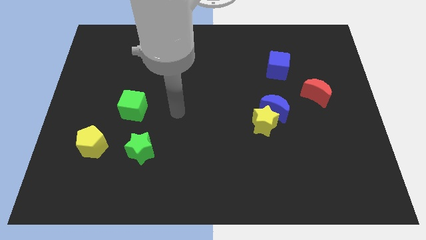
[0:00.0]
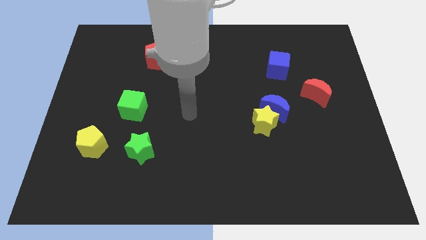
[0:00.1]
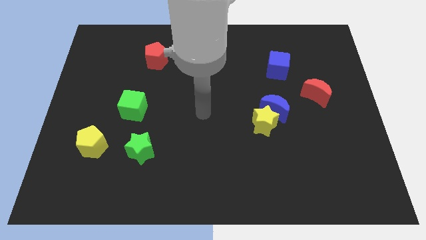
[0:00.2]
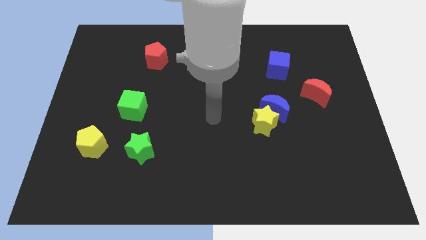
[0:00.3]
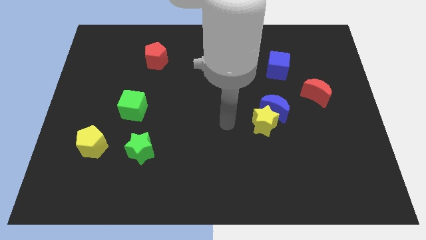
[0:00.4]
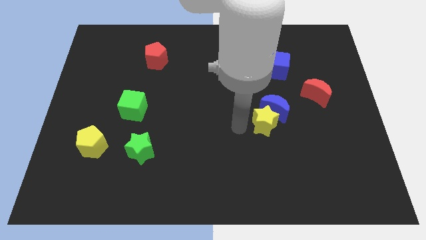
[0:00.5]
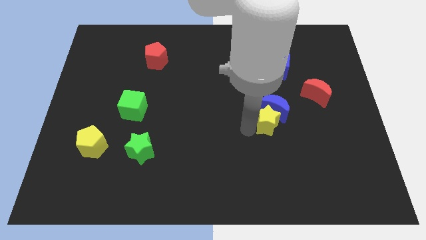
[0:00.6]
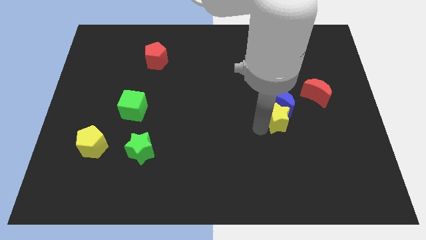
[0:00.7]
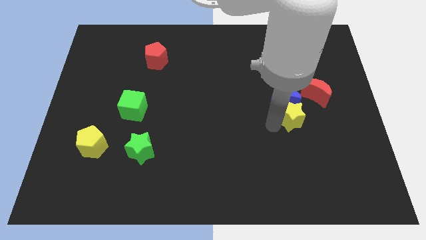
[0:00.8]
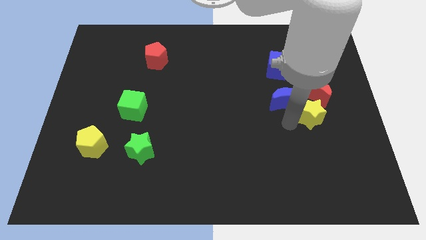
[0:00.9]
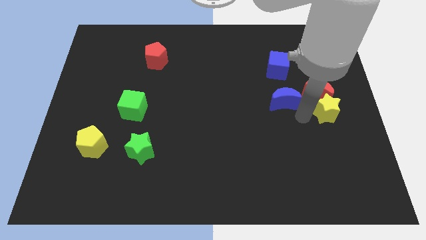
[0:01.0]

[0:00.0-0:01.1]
separate the blue moon from the yellow star

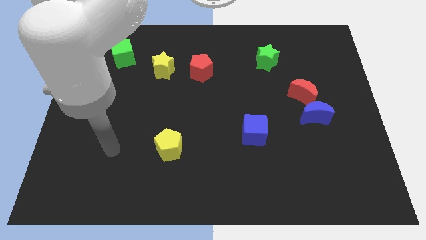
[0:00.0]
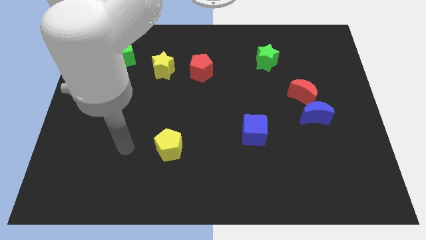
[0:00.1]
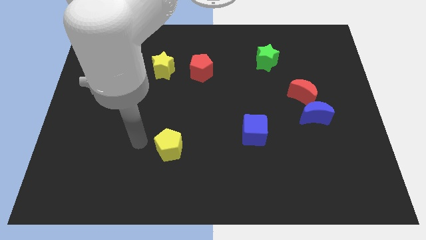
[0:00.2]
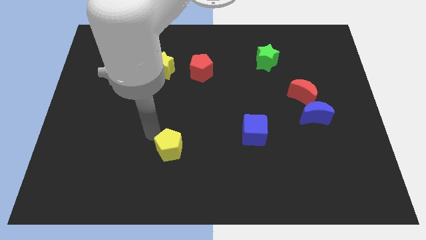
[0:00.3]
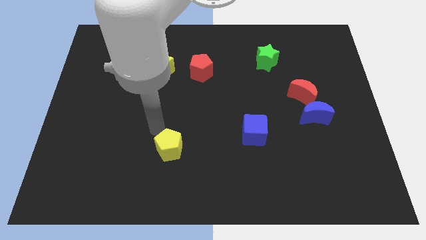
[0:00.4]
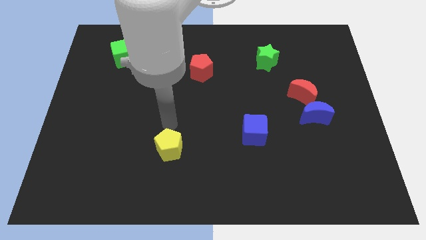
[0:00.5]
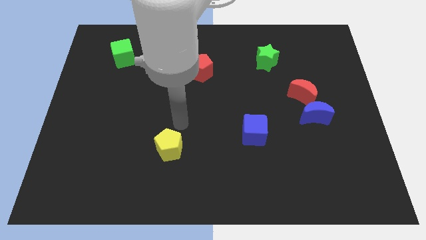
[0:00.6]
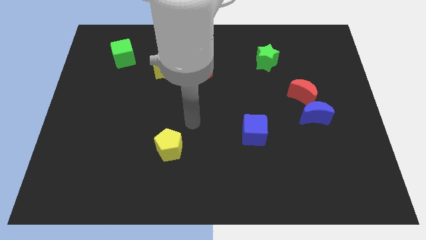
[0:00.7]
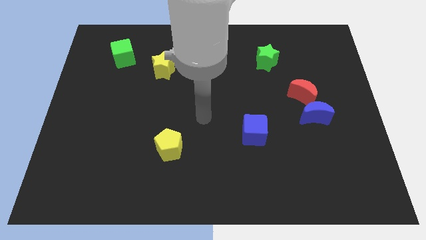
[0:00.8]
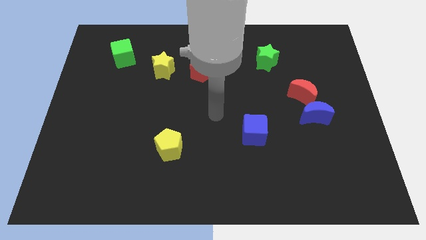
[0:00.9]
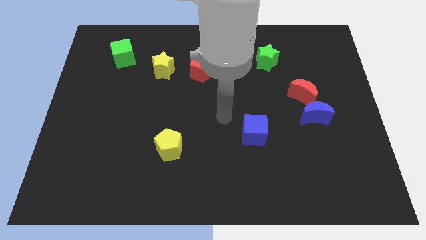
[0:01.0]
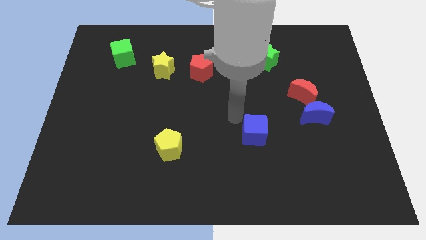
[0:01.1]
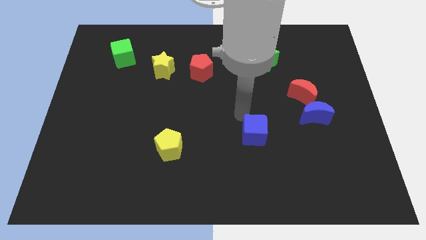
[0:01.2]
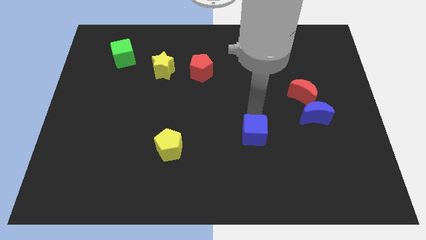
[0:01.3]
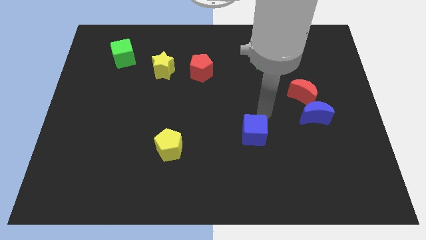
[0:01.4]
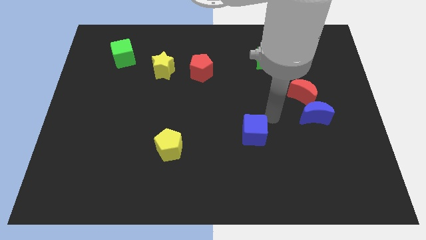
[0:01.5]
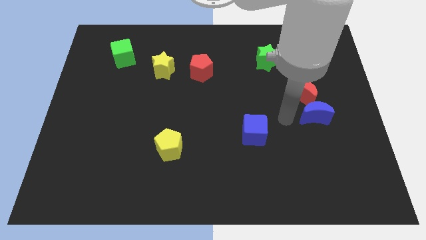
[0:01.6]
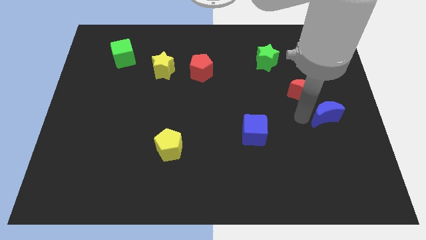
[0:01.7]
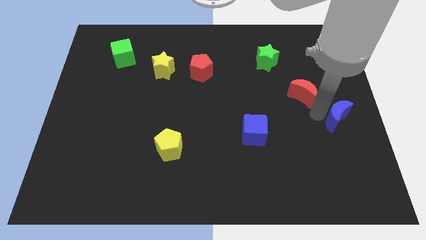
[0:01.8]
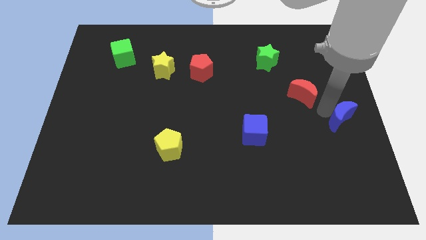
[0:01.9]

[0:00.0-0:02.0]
move the red moon away from the blue moon

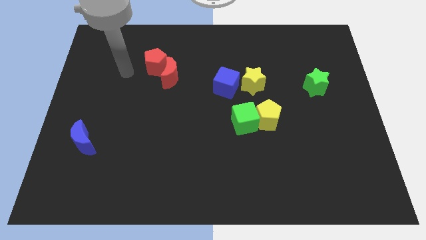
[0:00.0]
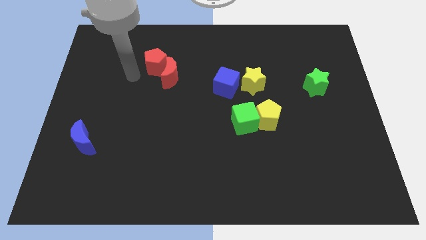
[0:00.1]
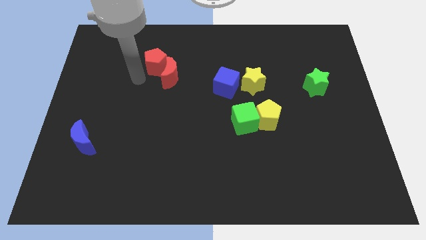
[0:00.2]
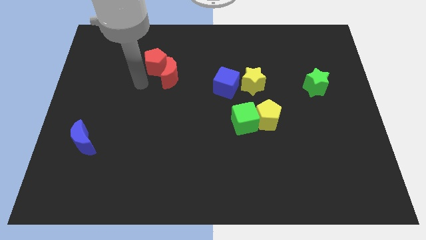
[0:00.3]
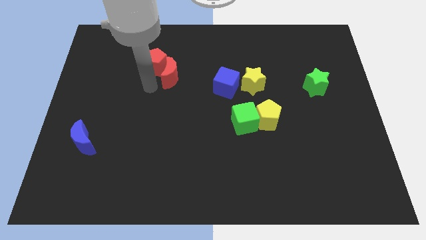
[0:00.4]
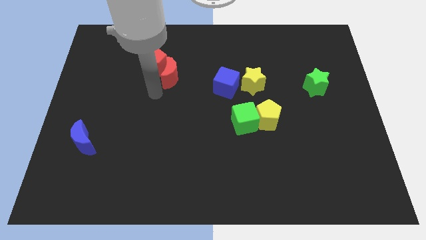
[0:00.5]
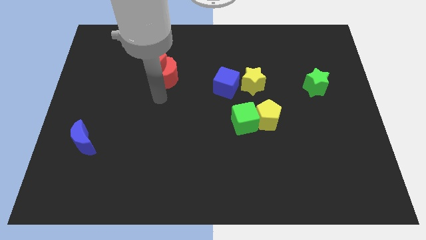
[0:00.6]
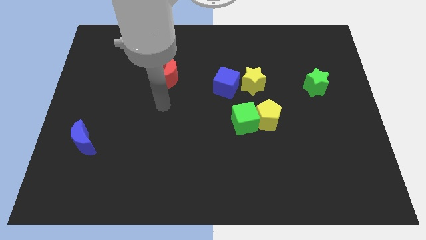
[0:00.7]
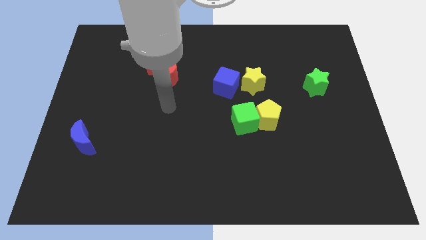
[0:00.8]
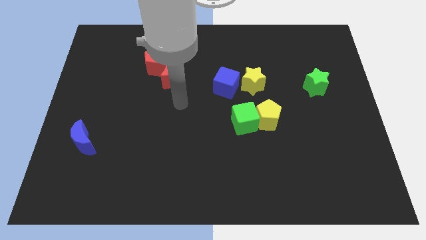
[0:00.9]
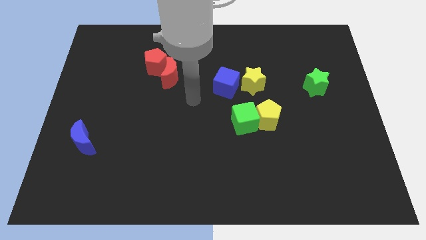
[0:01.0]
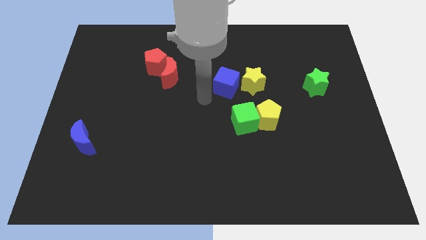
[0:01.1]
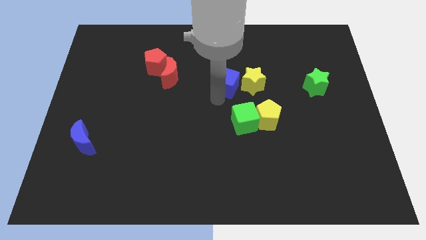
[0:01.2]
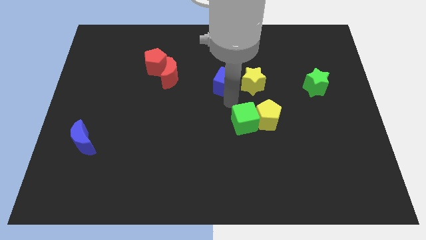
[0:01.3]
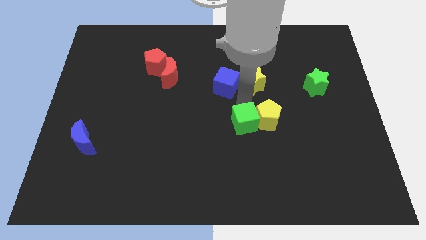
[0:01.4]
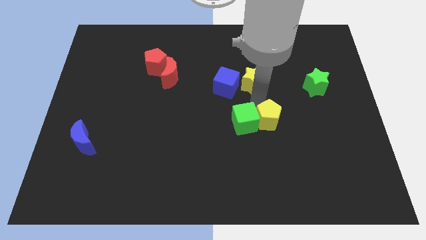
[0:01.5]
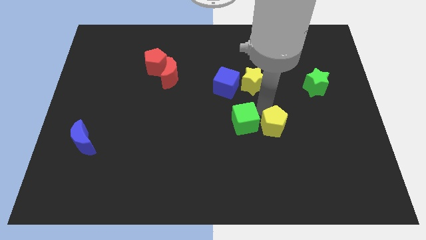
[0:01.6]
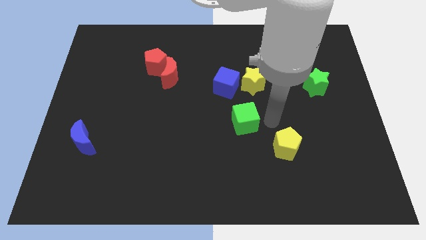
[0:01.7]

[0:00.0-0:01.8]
move the green cube away from the yellow pentagon

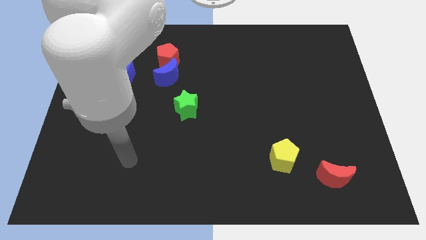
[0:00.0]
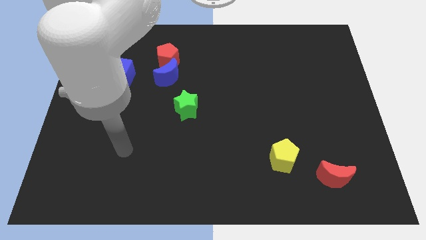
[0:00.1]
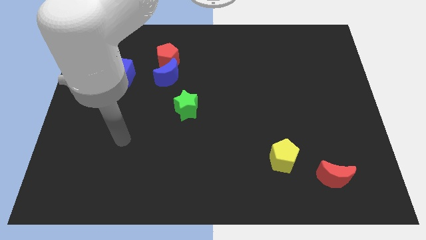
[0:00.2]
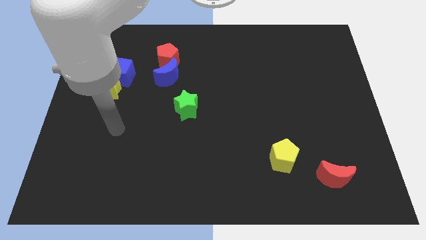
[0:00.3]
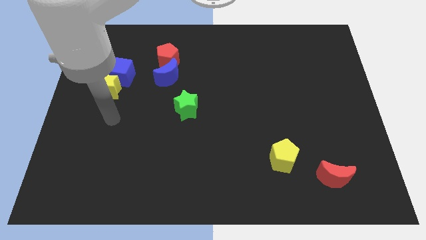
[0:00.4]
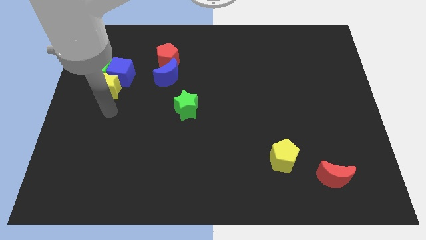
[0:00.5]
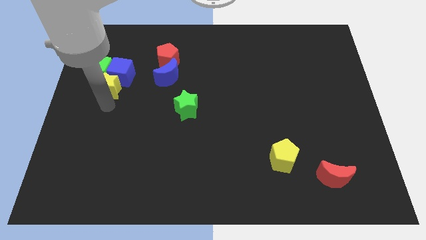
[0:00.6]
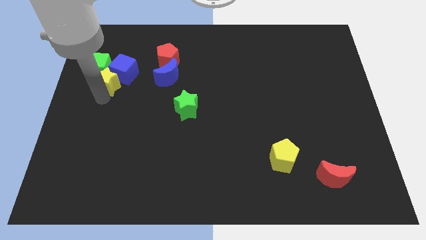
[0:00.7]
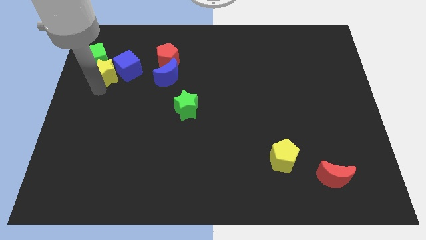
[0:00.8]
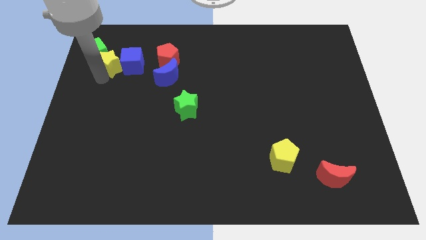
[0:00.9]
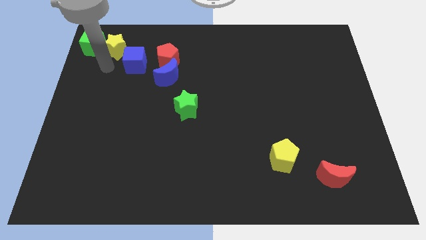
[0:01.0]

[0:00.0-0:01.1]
pull the blue cube apart from the yellow star and green cube

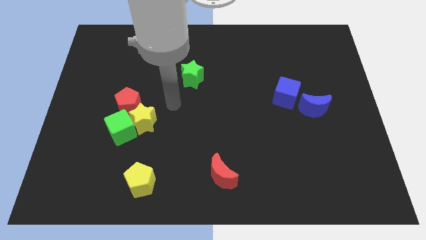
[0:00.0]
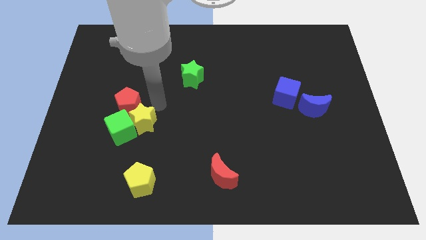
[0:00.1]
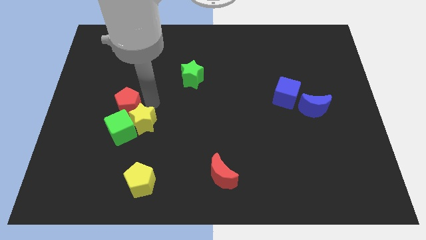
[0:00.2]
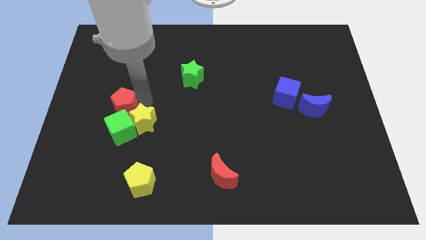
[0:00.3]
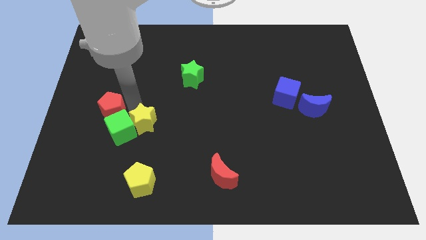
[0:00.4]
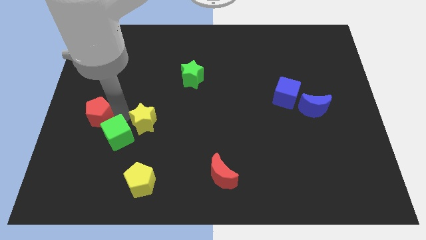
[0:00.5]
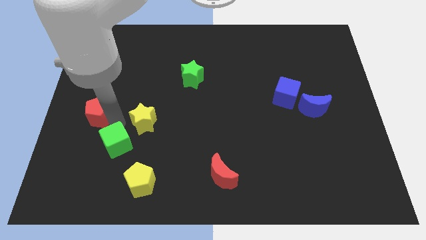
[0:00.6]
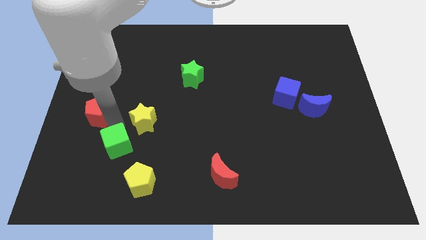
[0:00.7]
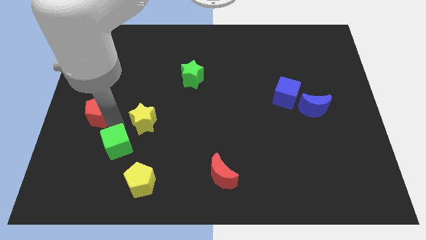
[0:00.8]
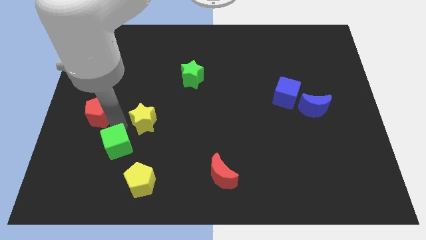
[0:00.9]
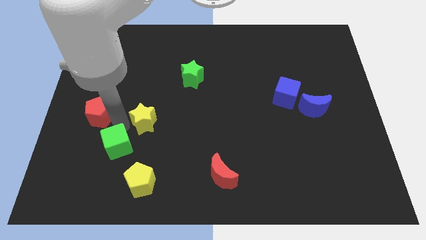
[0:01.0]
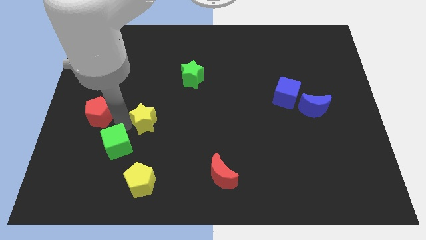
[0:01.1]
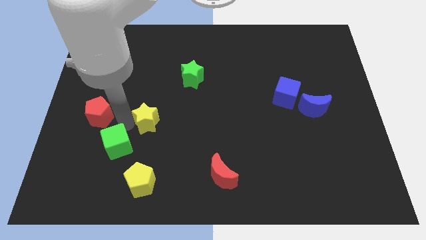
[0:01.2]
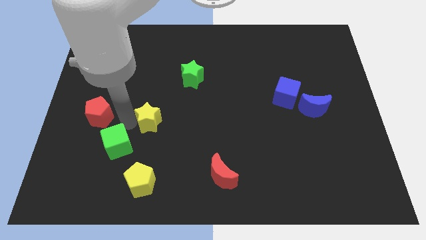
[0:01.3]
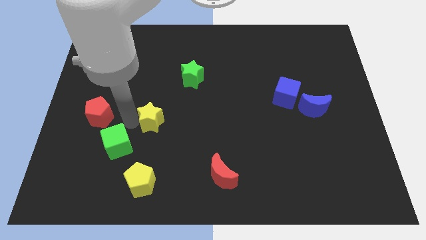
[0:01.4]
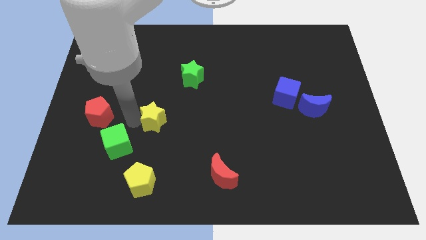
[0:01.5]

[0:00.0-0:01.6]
pull the yellow star apart from the green cube and red pentagon

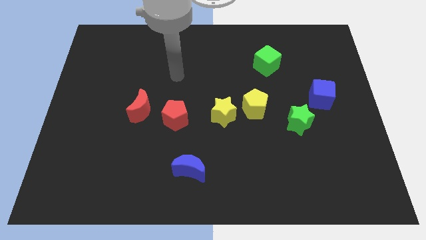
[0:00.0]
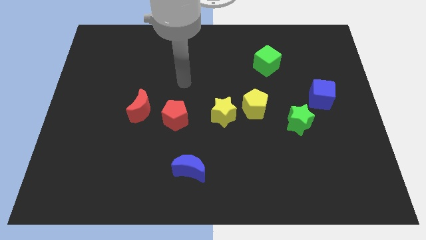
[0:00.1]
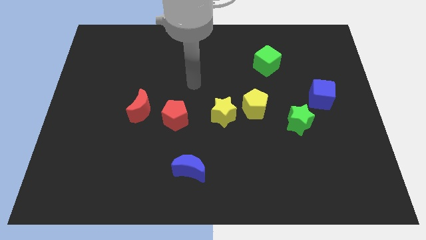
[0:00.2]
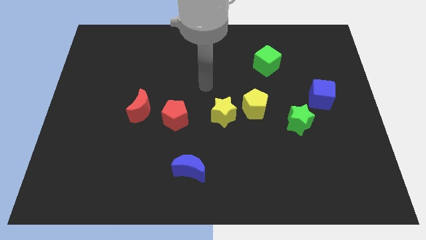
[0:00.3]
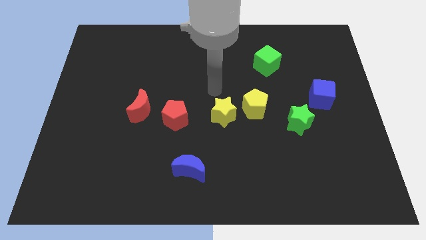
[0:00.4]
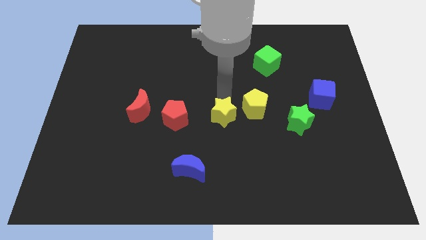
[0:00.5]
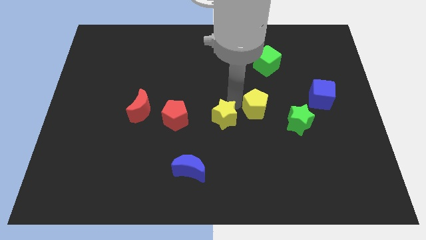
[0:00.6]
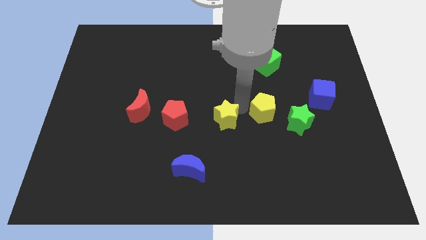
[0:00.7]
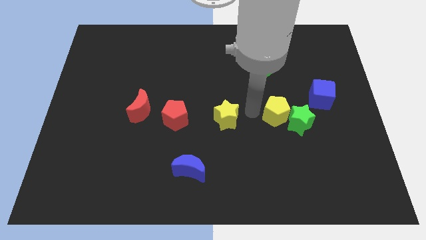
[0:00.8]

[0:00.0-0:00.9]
move the yellow star away from the yellow pentagon

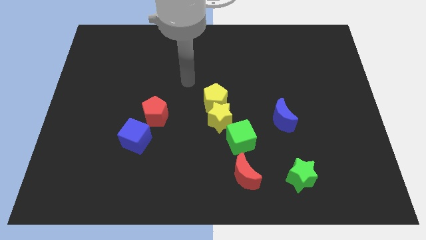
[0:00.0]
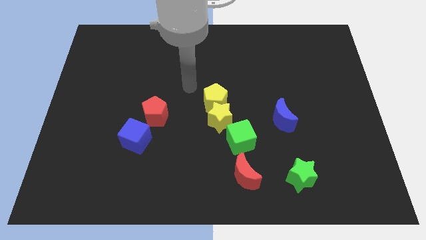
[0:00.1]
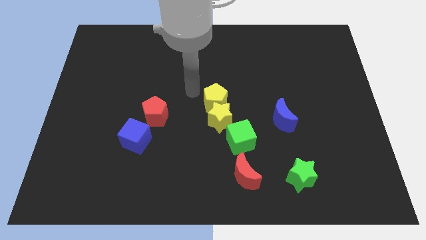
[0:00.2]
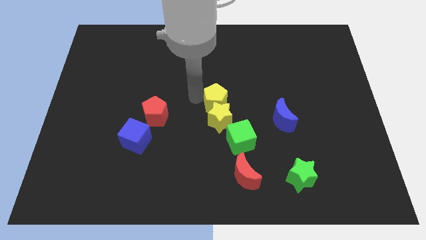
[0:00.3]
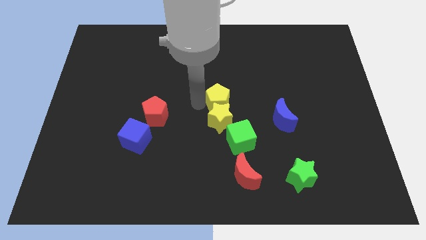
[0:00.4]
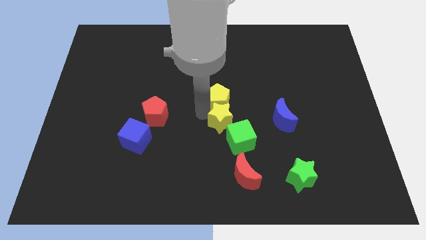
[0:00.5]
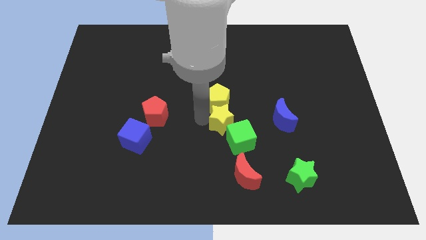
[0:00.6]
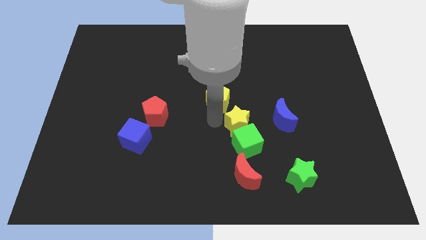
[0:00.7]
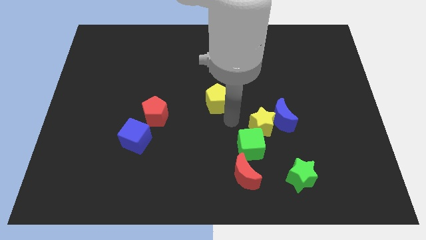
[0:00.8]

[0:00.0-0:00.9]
pull the yellow pentagon apart from the yellow star

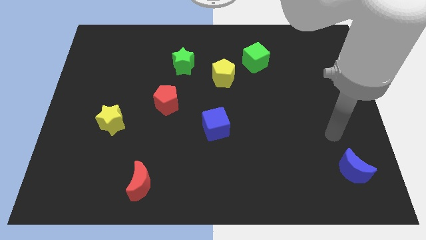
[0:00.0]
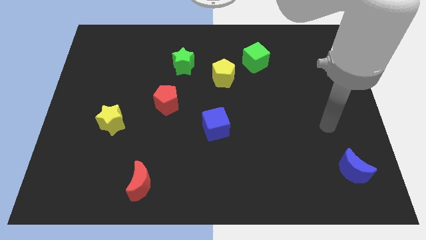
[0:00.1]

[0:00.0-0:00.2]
separate the green cube from the yellow pentagon
